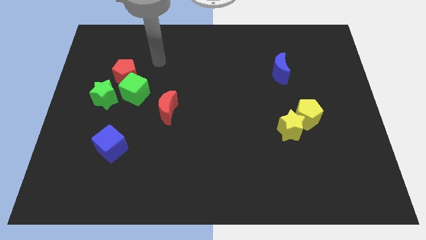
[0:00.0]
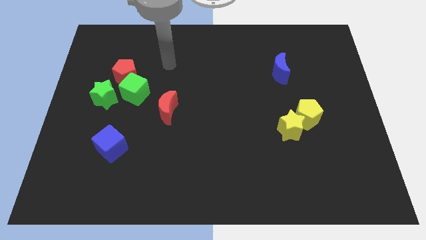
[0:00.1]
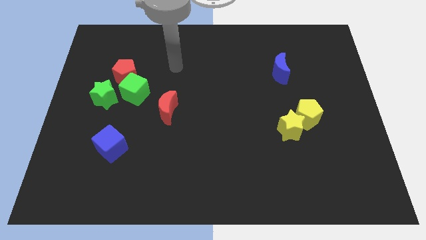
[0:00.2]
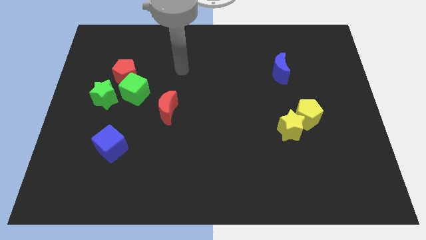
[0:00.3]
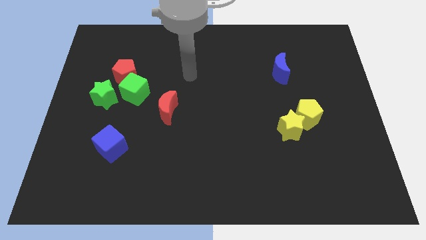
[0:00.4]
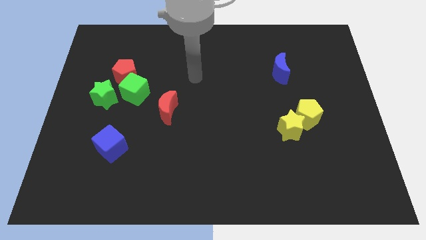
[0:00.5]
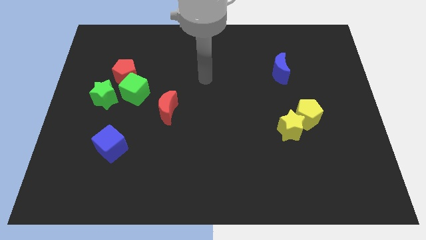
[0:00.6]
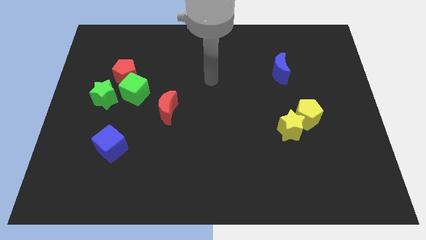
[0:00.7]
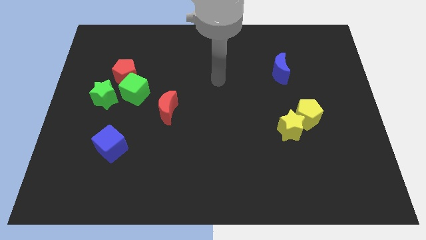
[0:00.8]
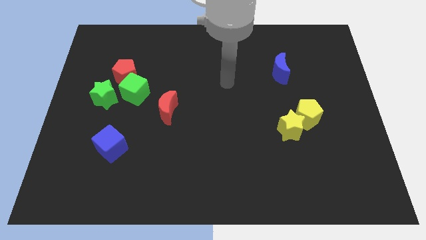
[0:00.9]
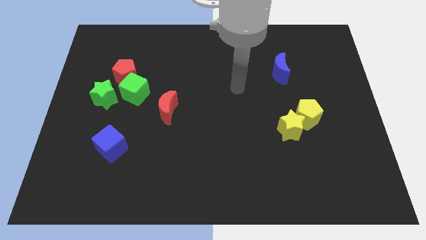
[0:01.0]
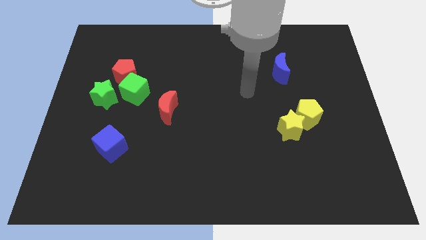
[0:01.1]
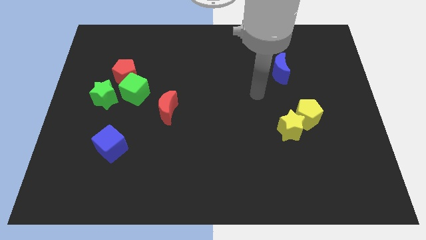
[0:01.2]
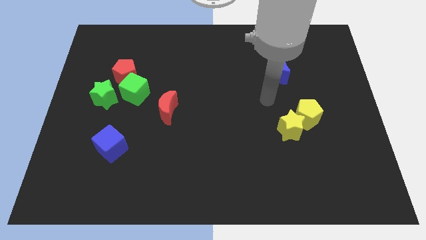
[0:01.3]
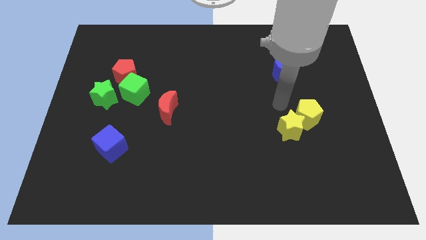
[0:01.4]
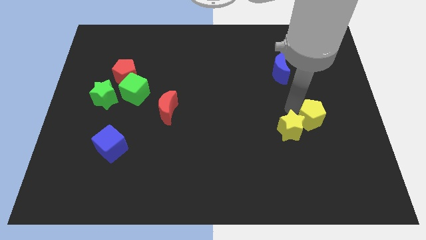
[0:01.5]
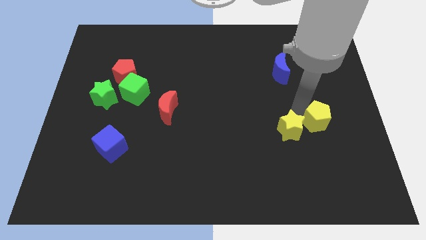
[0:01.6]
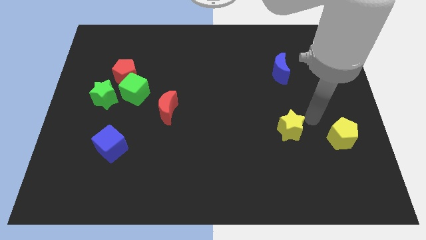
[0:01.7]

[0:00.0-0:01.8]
separate the yellow star from the yellow pentagon

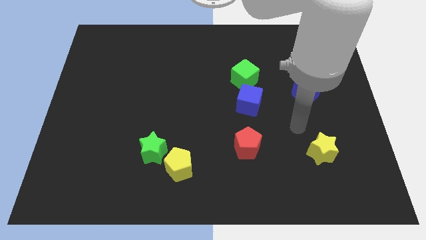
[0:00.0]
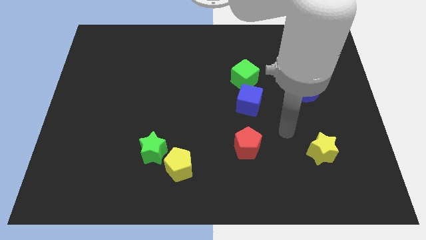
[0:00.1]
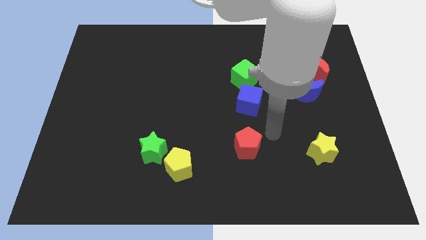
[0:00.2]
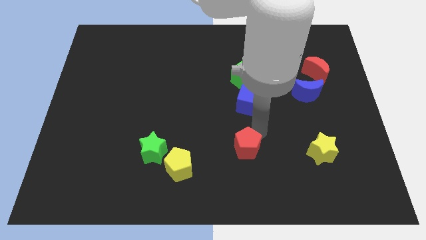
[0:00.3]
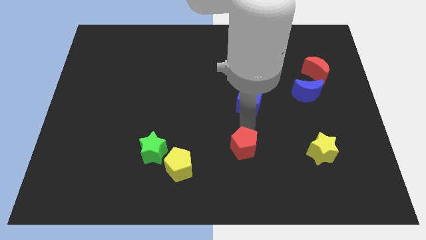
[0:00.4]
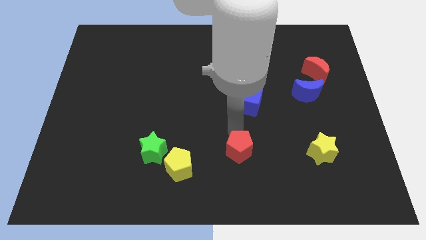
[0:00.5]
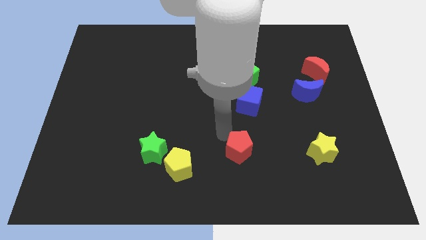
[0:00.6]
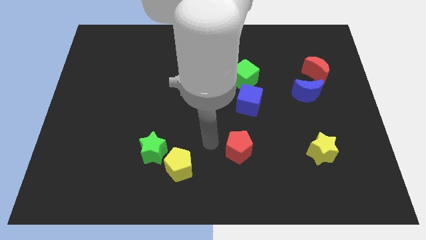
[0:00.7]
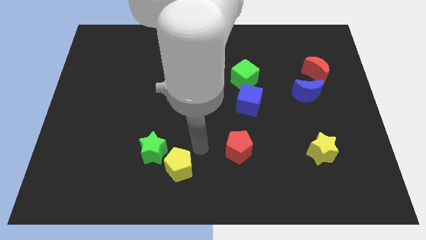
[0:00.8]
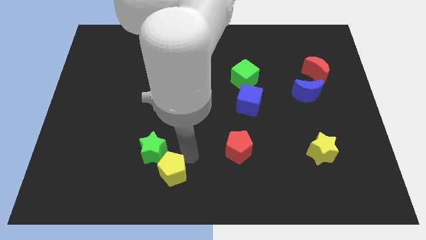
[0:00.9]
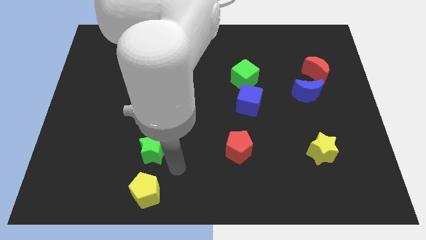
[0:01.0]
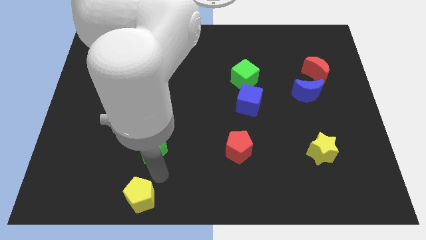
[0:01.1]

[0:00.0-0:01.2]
separate the green star from the yellow pentagon

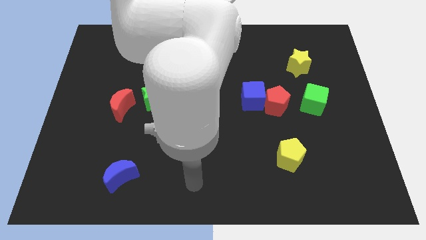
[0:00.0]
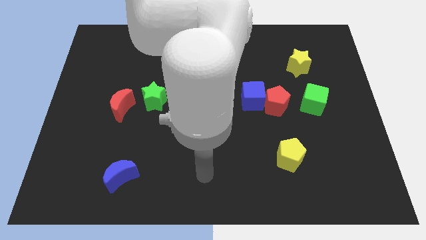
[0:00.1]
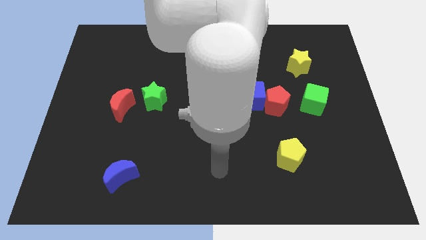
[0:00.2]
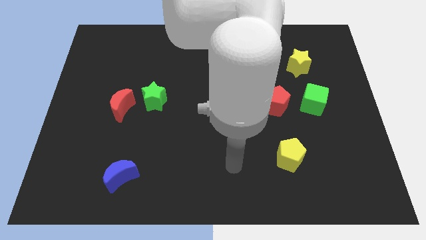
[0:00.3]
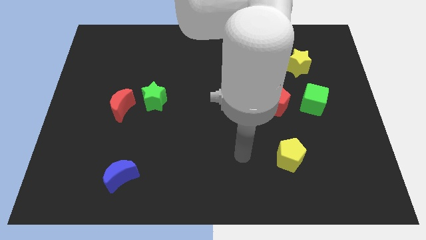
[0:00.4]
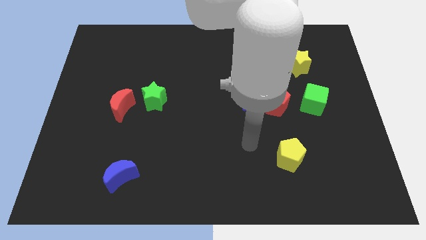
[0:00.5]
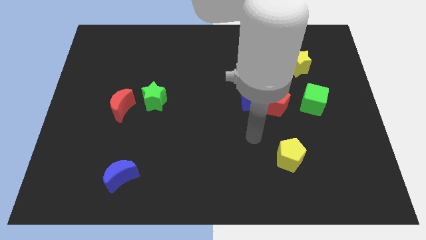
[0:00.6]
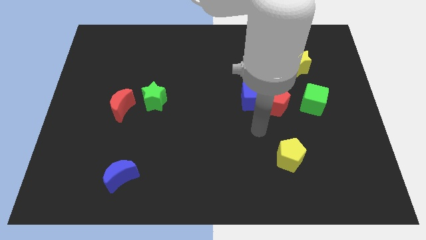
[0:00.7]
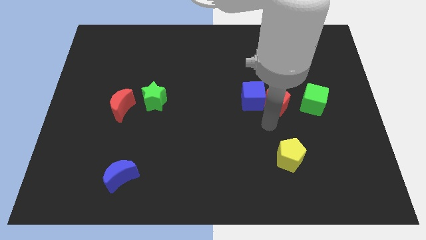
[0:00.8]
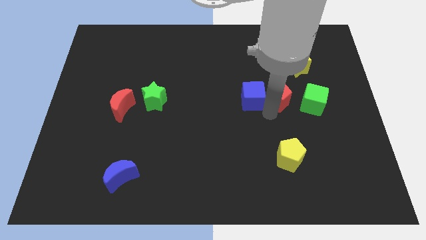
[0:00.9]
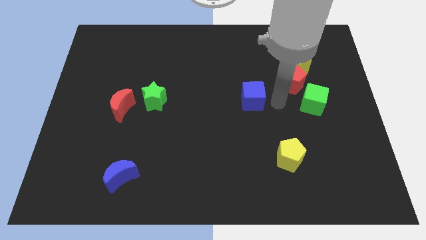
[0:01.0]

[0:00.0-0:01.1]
pull the blue cube apart from the red pentagon

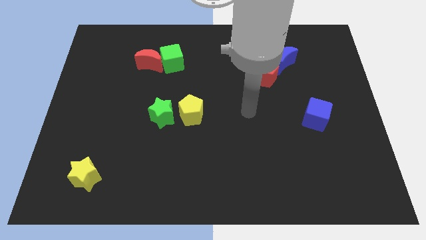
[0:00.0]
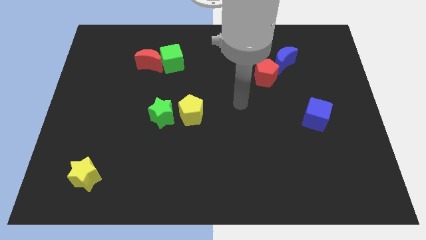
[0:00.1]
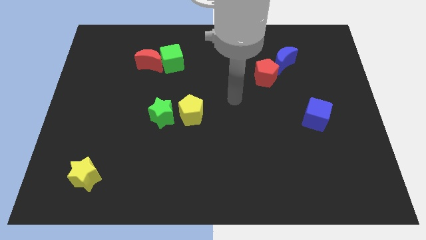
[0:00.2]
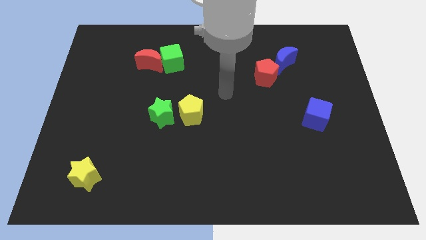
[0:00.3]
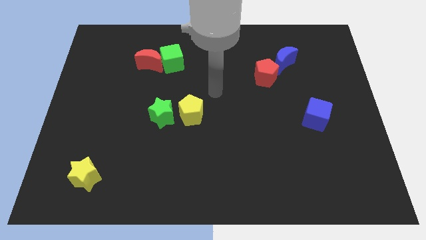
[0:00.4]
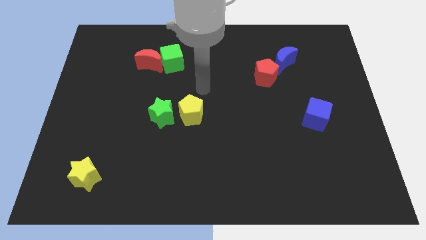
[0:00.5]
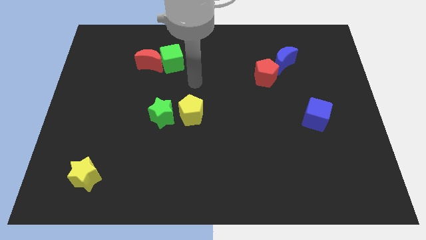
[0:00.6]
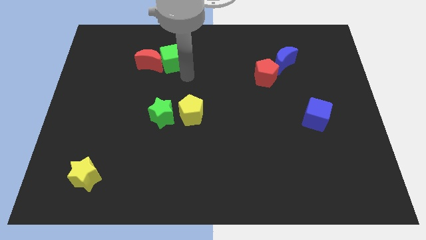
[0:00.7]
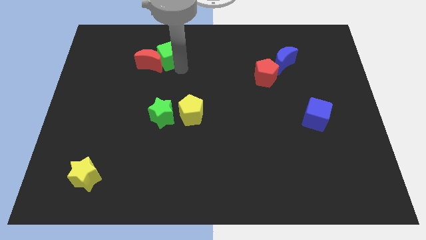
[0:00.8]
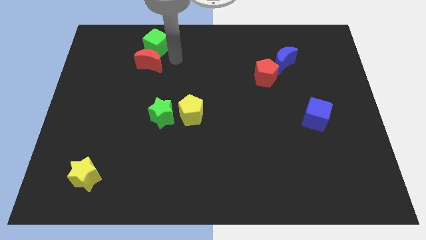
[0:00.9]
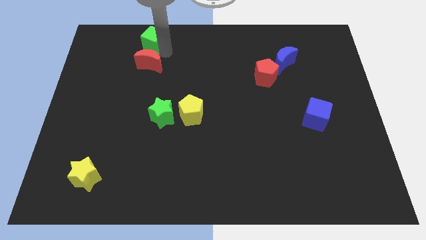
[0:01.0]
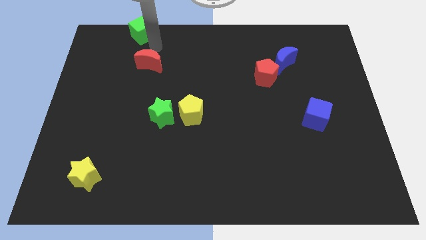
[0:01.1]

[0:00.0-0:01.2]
separate the red moon from the green cube

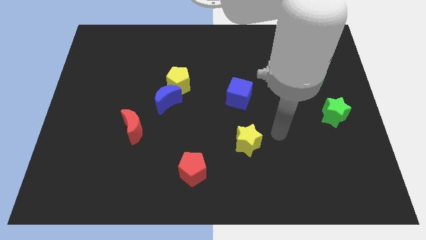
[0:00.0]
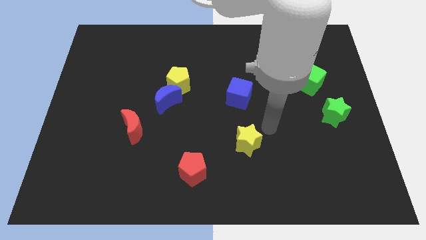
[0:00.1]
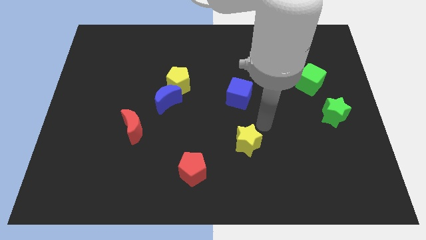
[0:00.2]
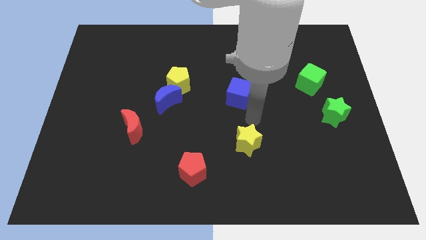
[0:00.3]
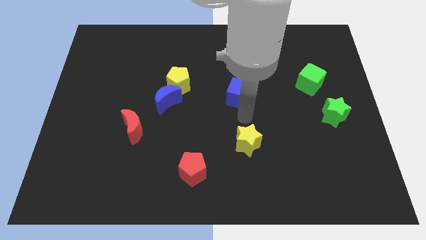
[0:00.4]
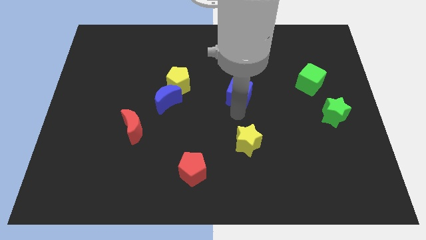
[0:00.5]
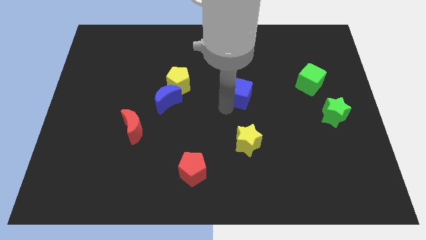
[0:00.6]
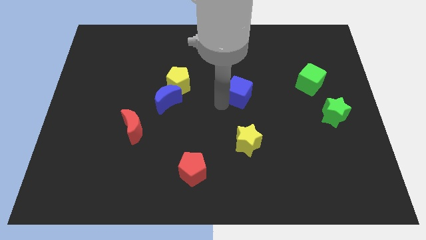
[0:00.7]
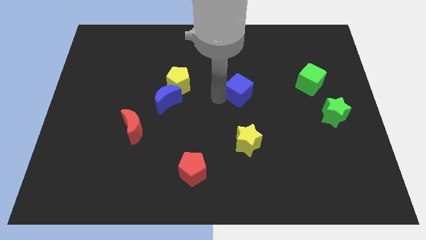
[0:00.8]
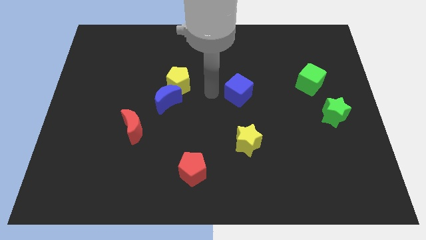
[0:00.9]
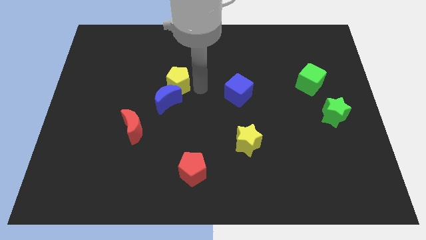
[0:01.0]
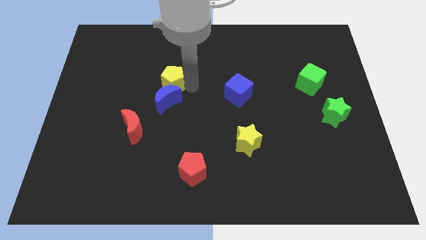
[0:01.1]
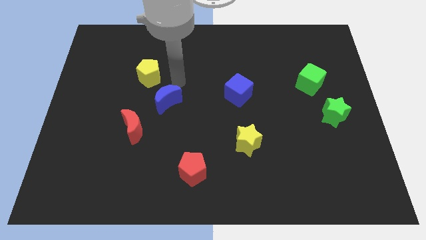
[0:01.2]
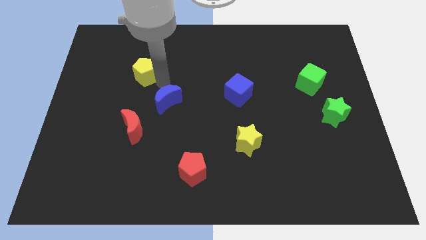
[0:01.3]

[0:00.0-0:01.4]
move the blue moon away from the yellow pentagon

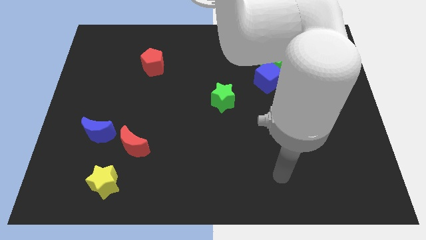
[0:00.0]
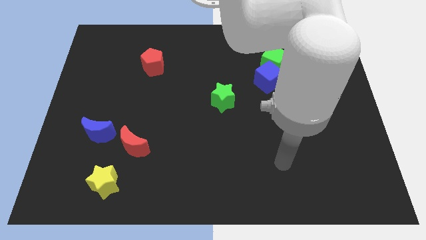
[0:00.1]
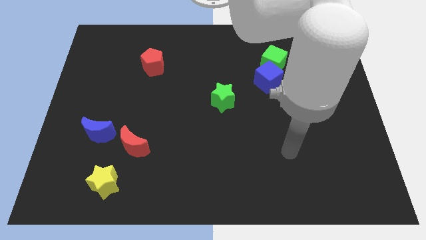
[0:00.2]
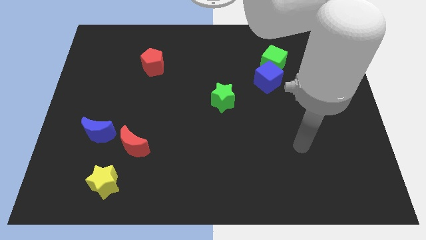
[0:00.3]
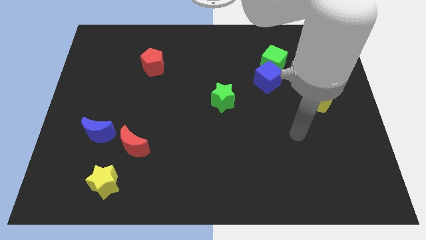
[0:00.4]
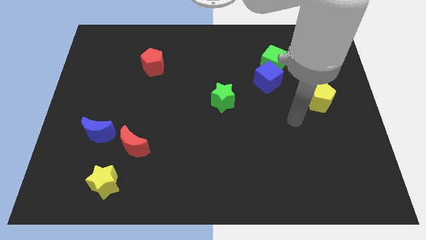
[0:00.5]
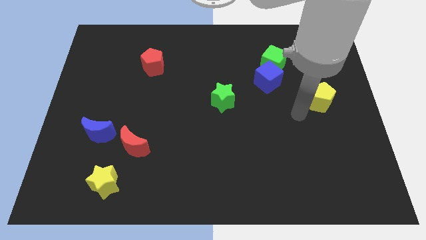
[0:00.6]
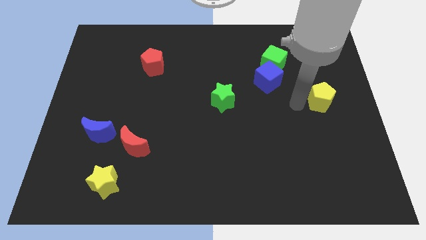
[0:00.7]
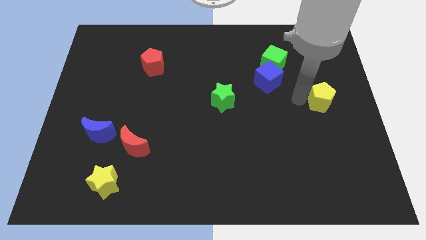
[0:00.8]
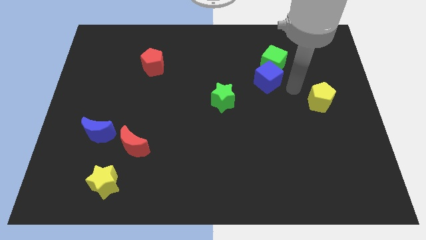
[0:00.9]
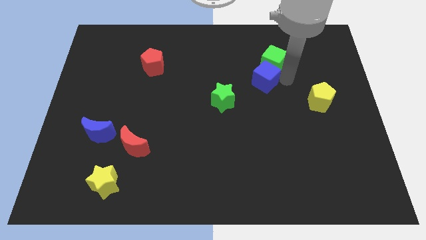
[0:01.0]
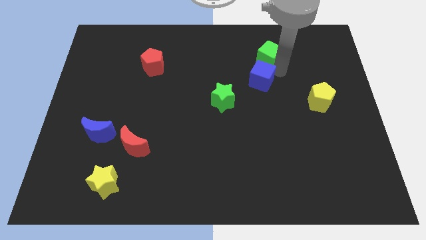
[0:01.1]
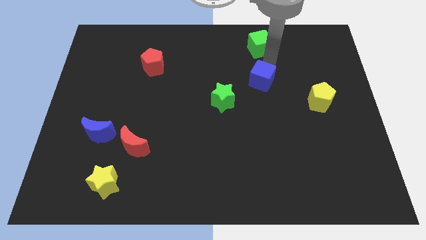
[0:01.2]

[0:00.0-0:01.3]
move the blue cube away from the green cube

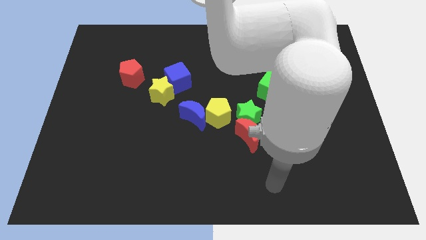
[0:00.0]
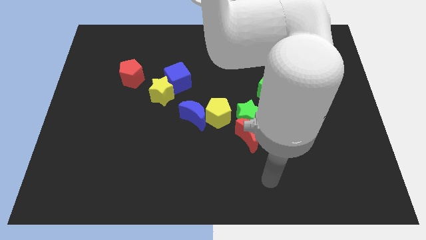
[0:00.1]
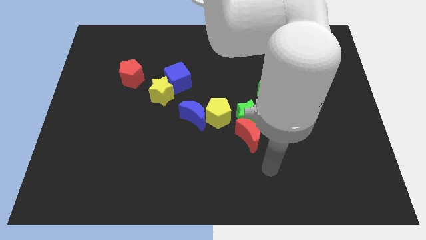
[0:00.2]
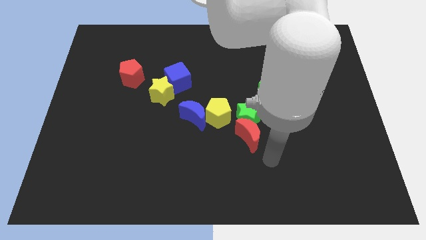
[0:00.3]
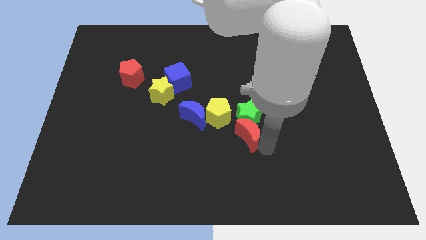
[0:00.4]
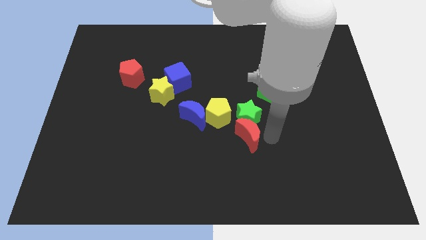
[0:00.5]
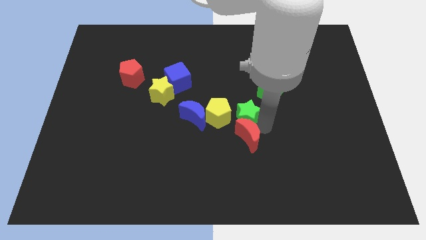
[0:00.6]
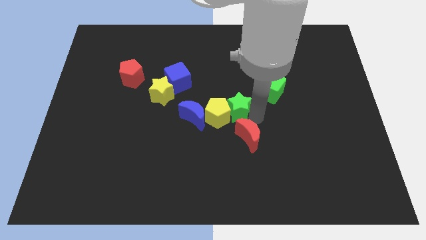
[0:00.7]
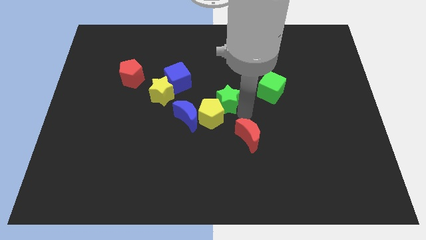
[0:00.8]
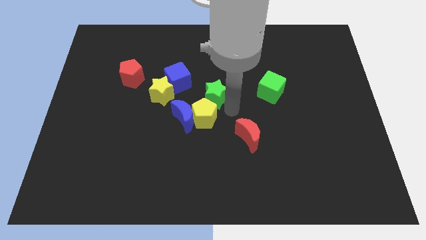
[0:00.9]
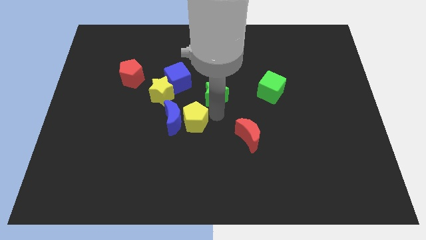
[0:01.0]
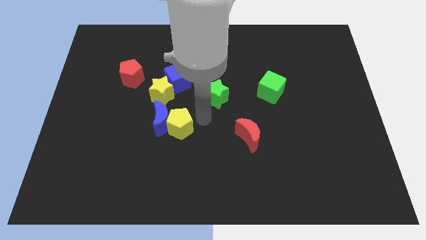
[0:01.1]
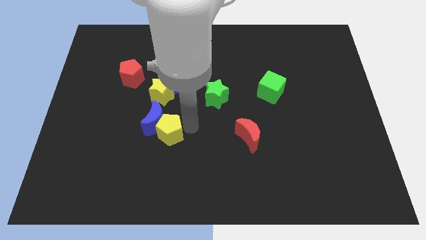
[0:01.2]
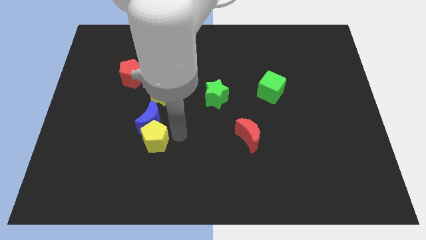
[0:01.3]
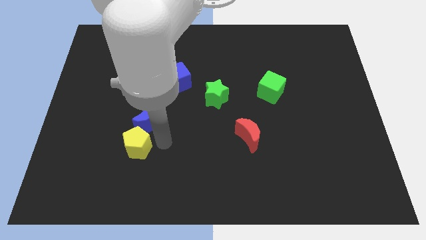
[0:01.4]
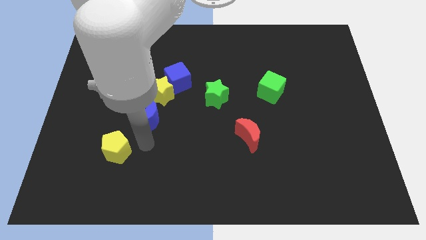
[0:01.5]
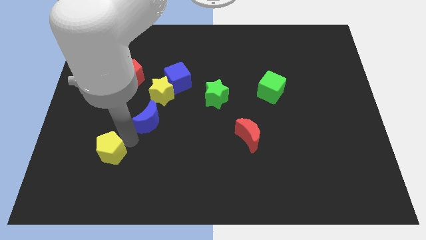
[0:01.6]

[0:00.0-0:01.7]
pull the blue moon apart from the yellow pentagon
